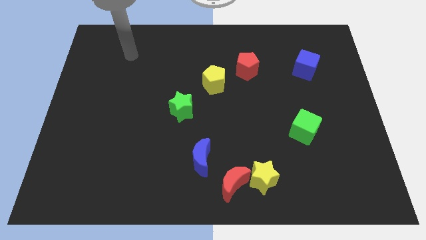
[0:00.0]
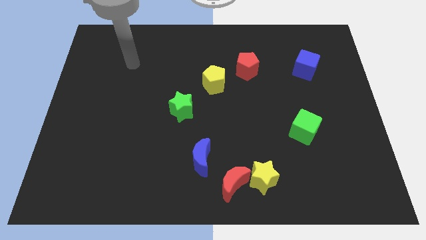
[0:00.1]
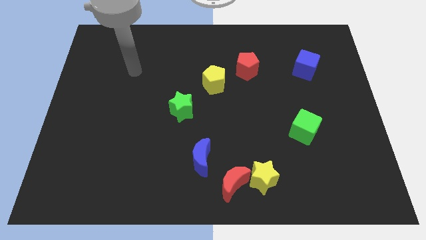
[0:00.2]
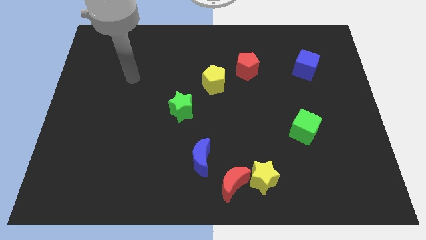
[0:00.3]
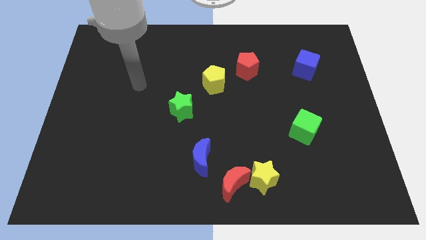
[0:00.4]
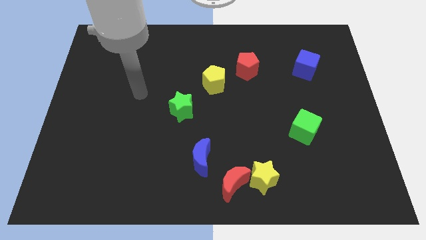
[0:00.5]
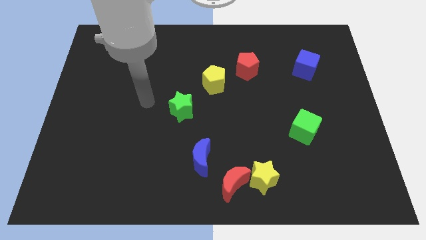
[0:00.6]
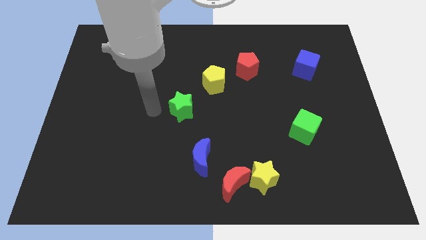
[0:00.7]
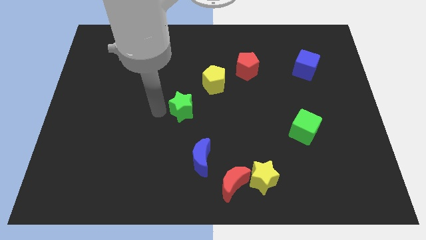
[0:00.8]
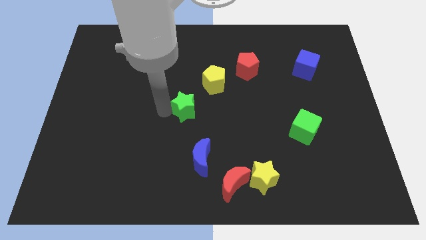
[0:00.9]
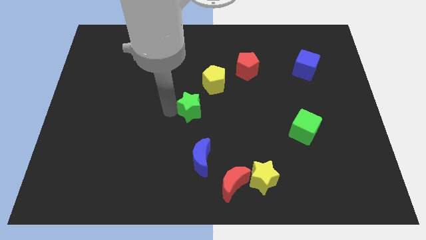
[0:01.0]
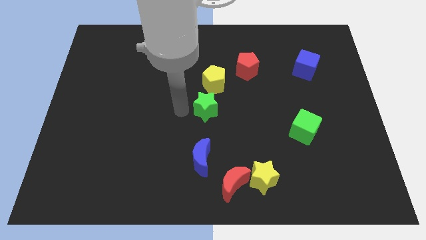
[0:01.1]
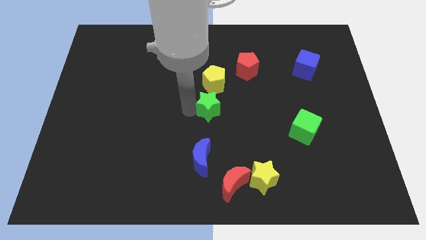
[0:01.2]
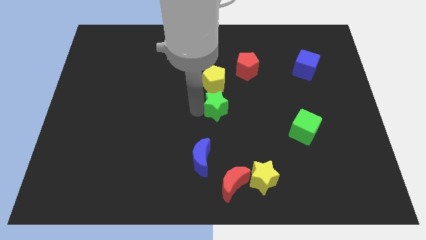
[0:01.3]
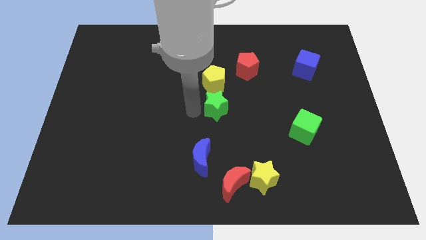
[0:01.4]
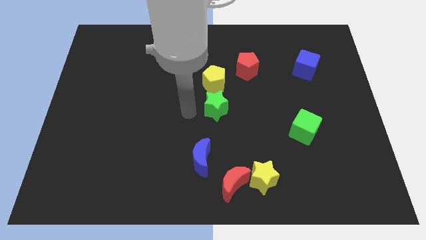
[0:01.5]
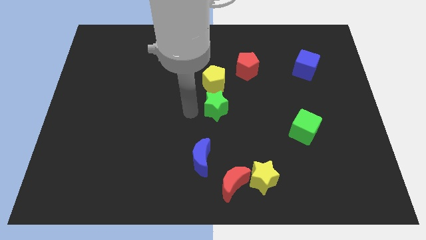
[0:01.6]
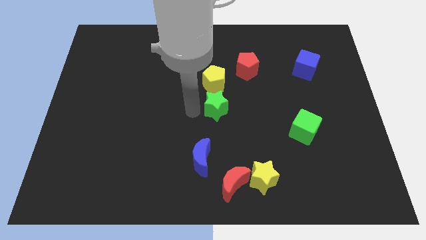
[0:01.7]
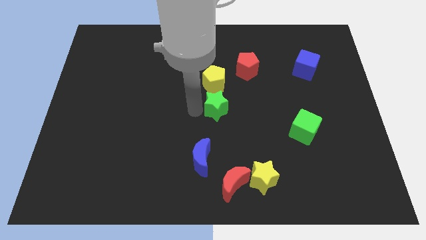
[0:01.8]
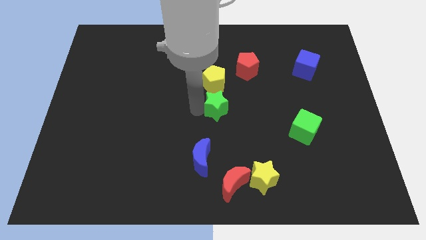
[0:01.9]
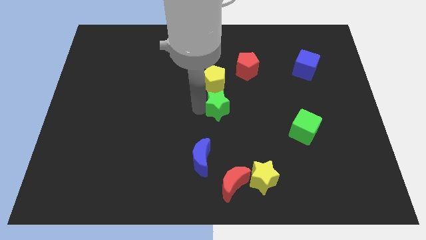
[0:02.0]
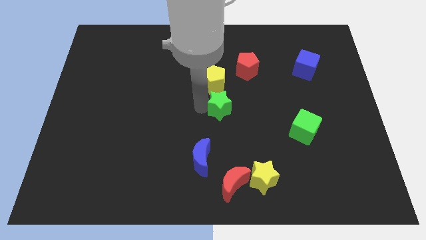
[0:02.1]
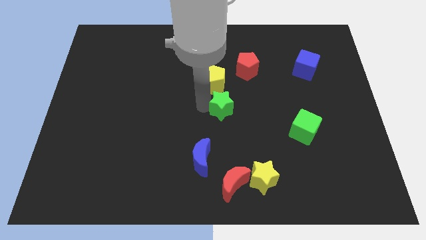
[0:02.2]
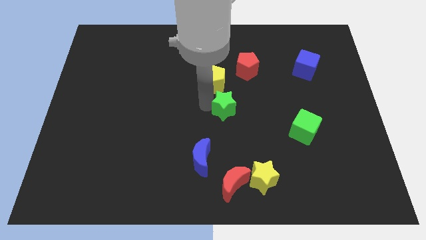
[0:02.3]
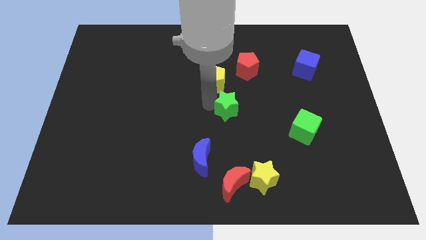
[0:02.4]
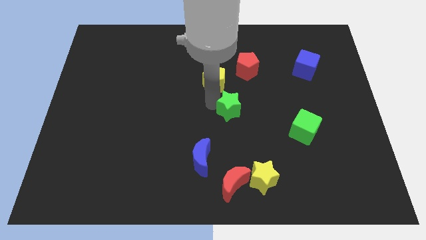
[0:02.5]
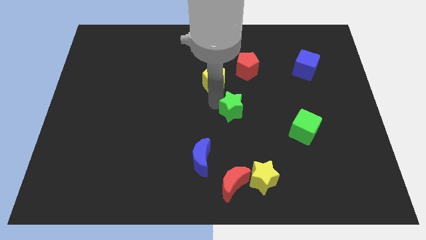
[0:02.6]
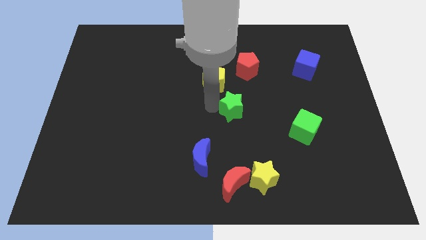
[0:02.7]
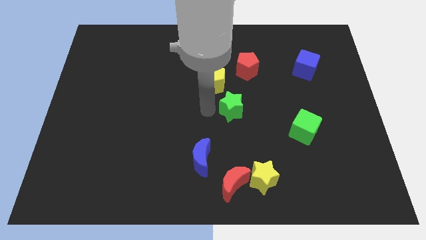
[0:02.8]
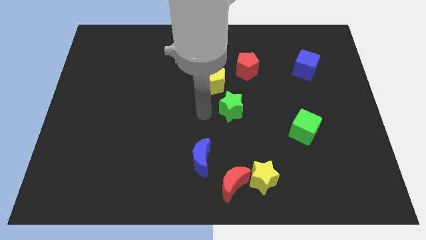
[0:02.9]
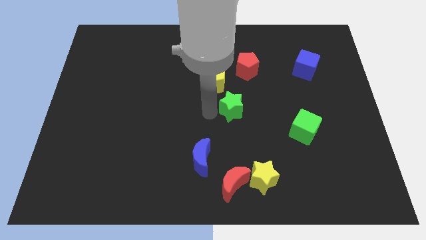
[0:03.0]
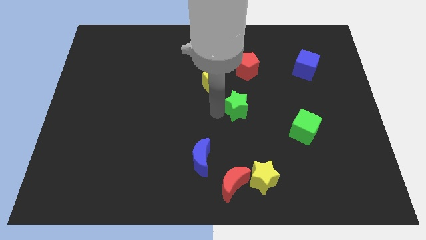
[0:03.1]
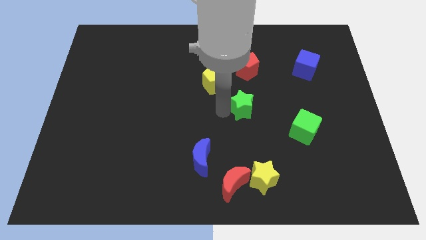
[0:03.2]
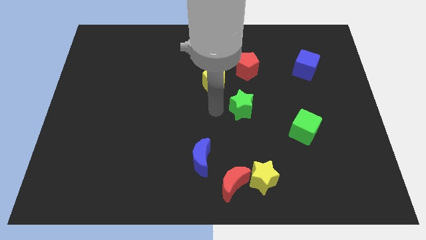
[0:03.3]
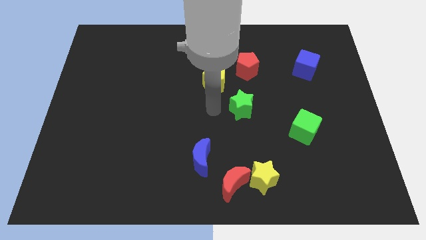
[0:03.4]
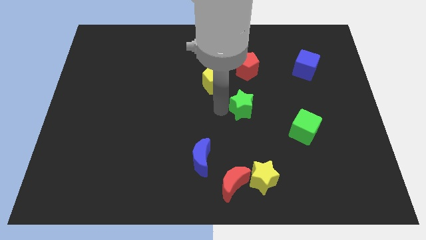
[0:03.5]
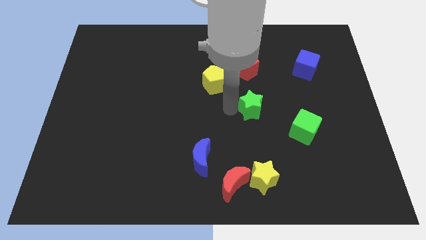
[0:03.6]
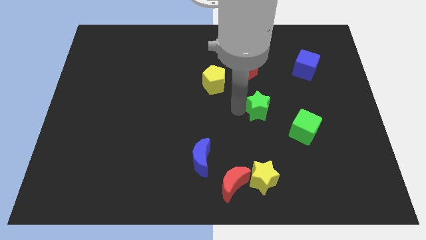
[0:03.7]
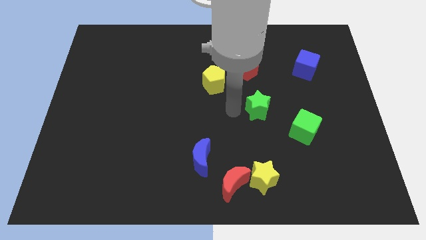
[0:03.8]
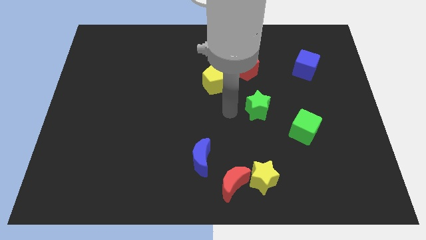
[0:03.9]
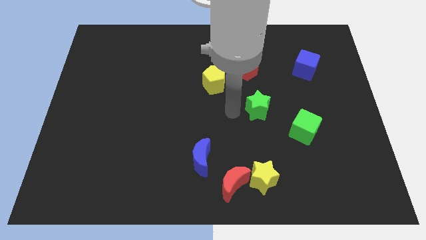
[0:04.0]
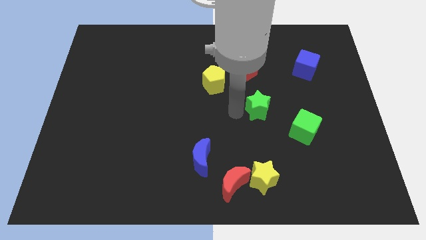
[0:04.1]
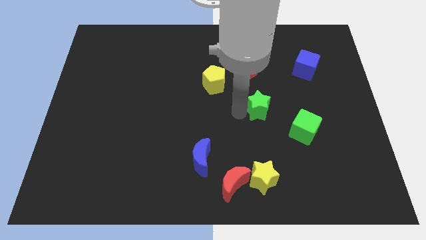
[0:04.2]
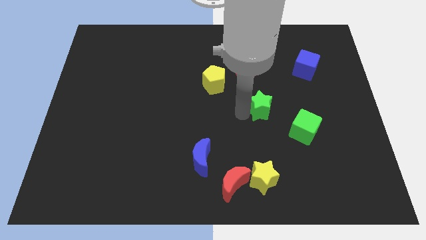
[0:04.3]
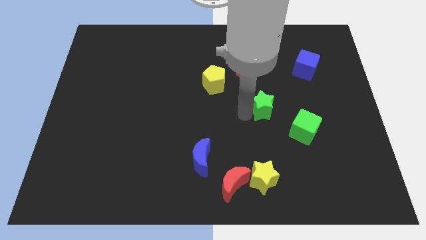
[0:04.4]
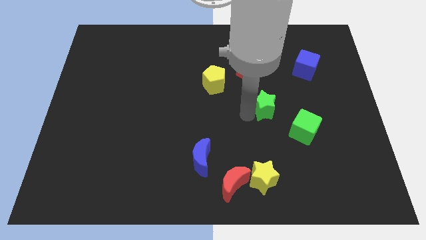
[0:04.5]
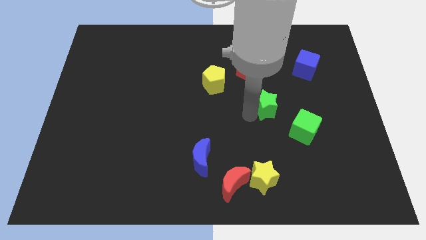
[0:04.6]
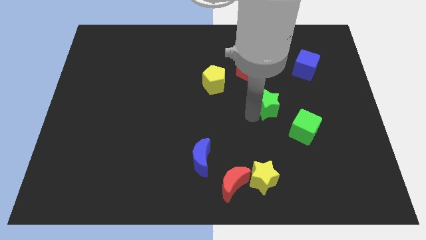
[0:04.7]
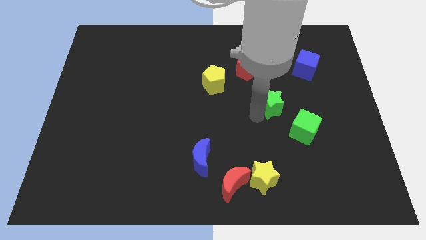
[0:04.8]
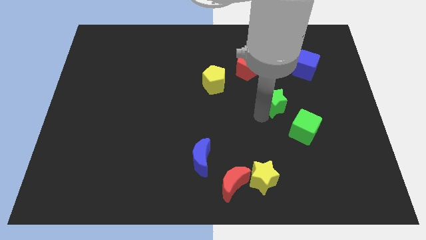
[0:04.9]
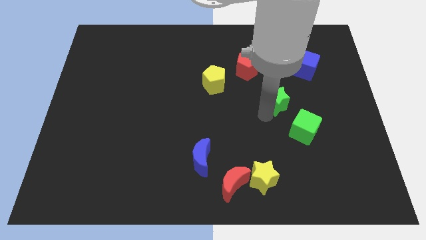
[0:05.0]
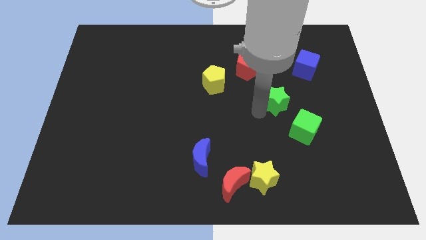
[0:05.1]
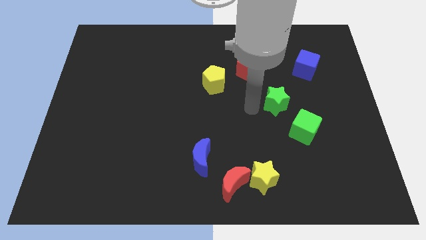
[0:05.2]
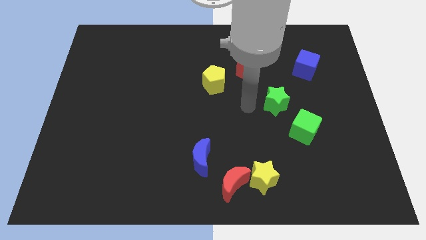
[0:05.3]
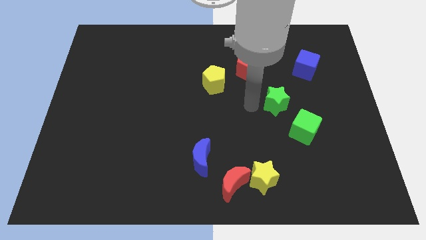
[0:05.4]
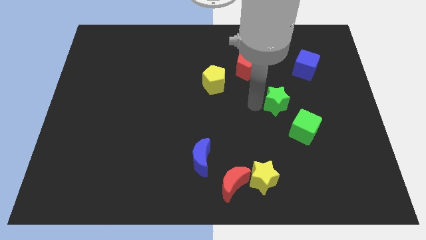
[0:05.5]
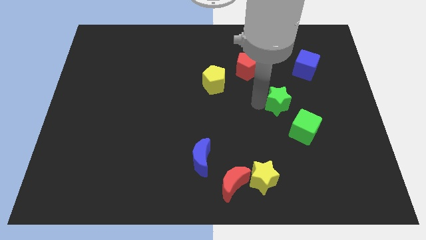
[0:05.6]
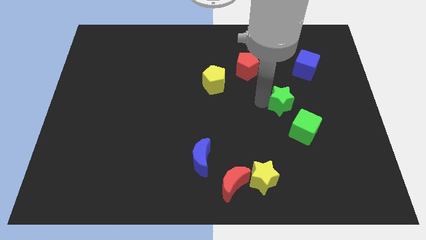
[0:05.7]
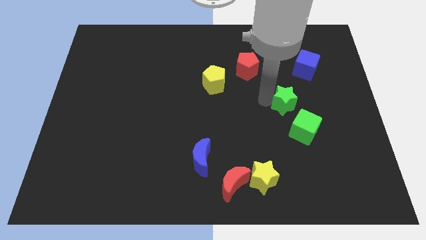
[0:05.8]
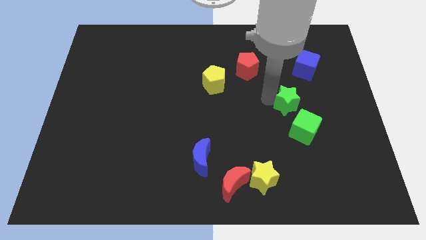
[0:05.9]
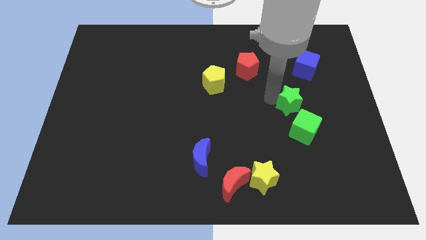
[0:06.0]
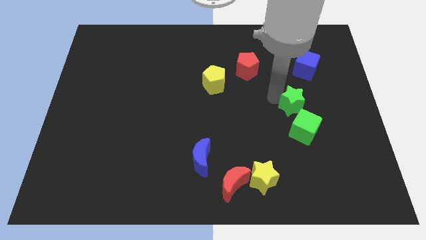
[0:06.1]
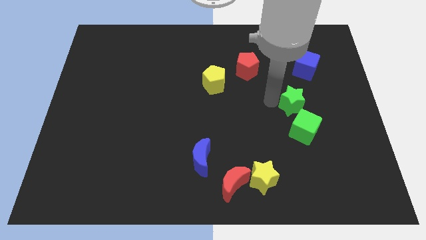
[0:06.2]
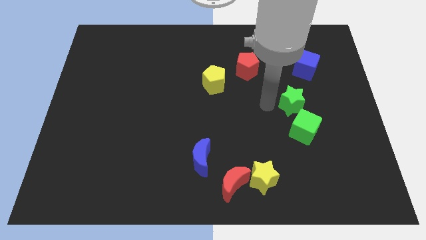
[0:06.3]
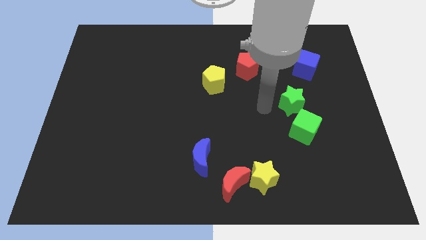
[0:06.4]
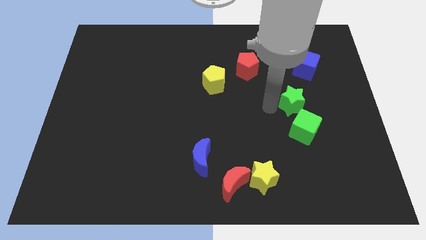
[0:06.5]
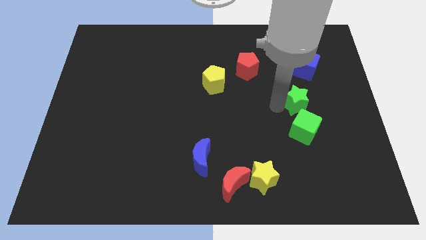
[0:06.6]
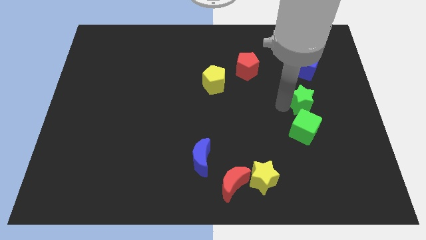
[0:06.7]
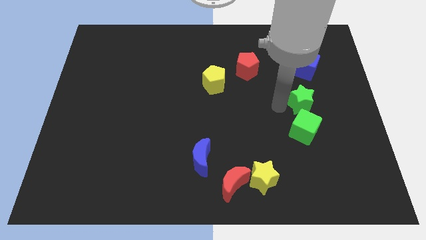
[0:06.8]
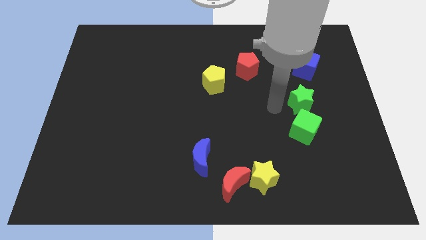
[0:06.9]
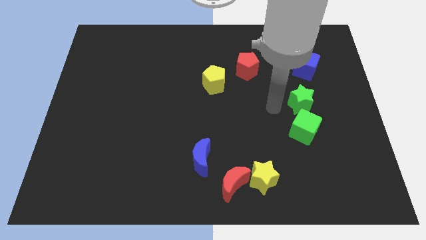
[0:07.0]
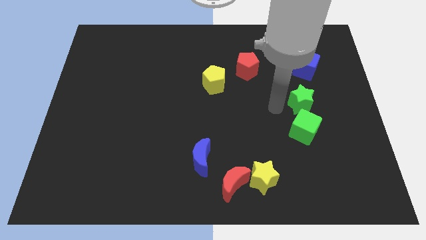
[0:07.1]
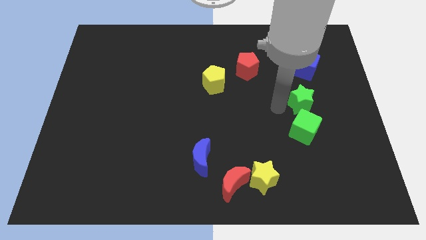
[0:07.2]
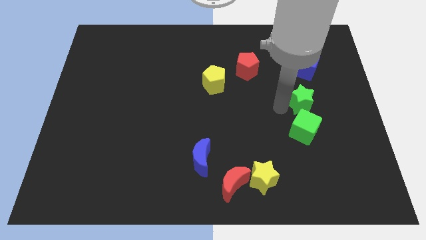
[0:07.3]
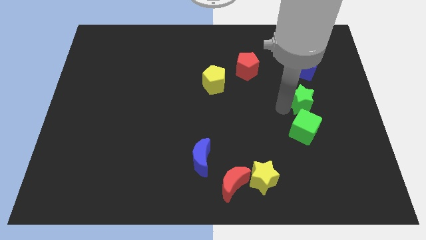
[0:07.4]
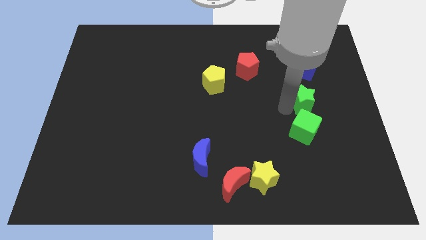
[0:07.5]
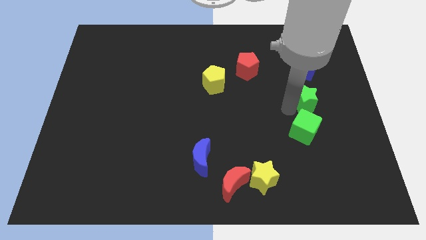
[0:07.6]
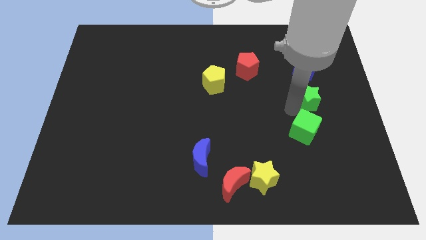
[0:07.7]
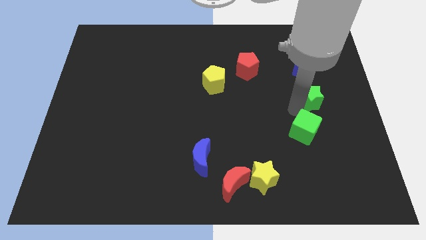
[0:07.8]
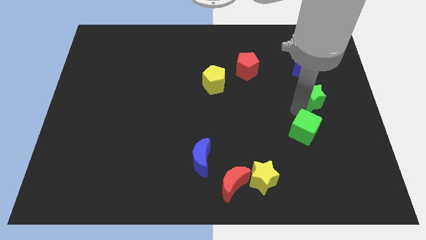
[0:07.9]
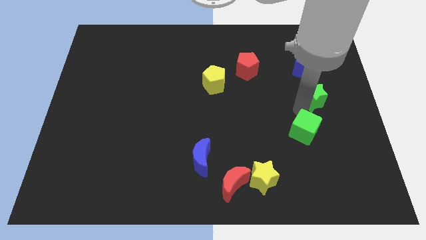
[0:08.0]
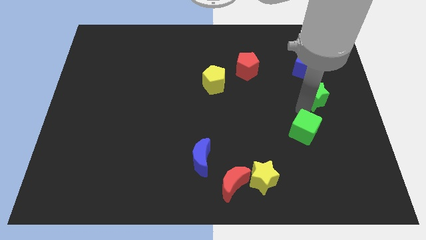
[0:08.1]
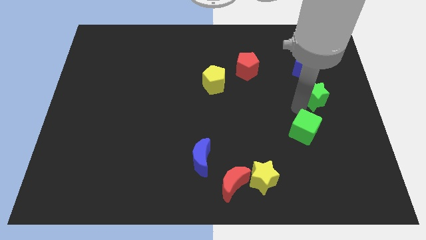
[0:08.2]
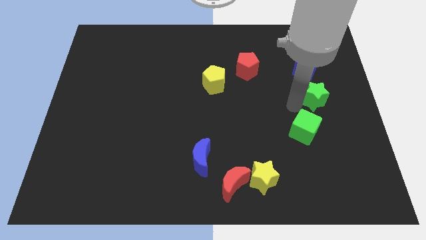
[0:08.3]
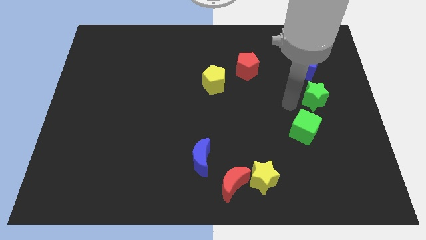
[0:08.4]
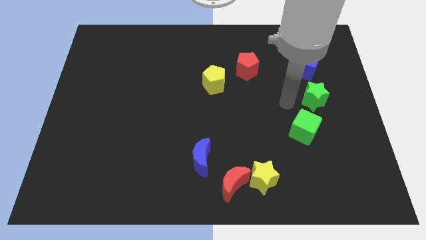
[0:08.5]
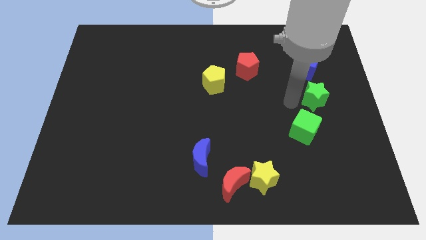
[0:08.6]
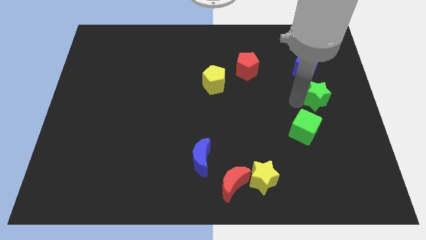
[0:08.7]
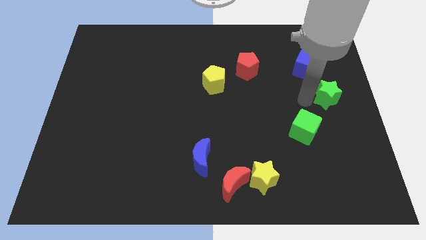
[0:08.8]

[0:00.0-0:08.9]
slide the green star to the center right
